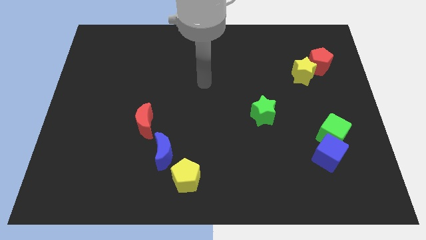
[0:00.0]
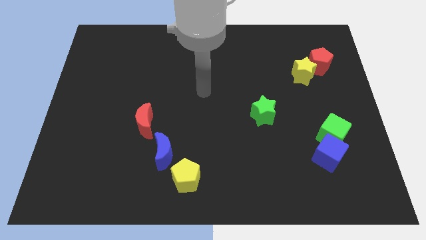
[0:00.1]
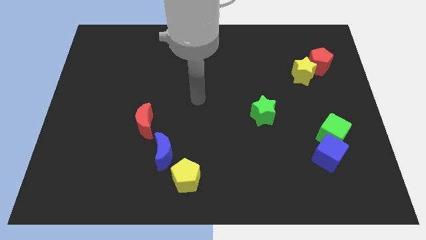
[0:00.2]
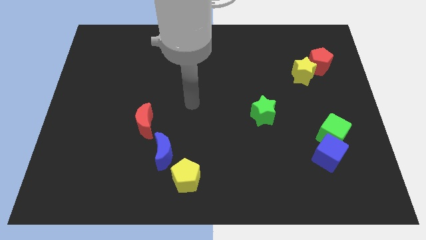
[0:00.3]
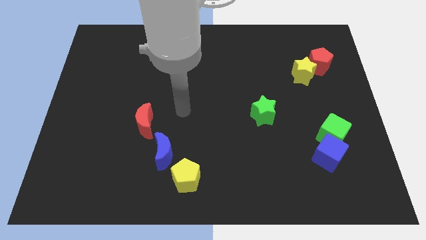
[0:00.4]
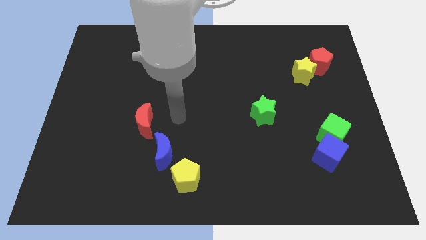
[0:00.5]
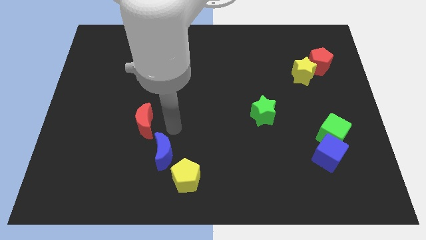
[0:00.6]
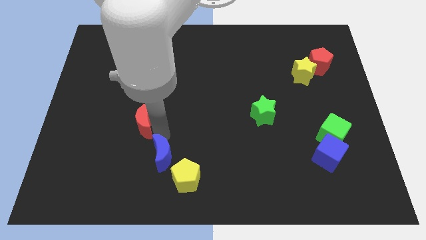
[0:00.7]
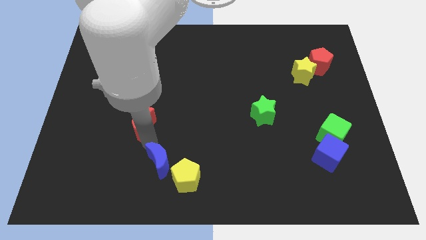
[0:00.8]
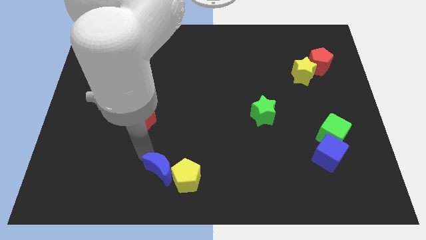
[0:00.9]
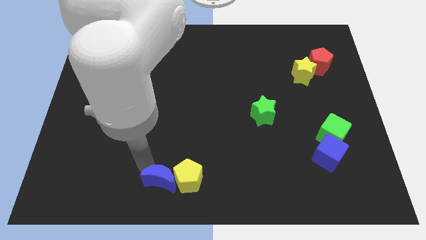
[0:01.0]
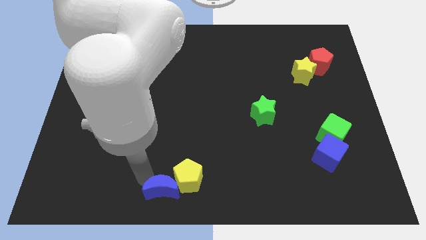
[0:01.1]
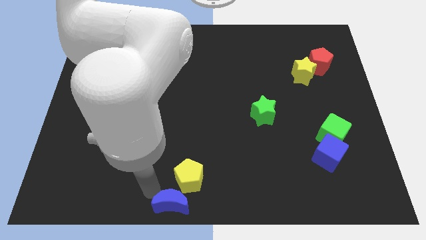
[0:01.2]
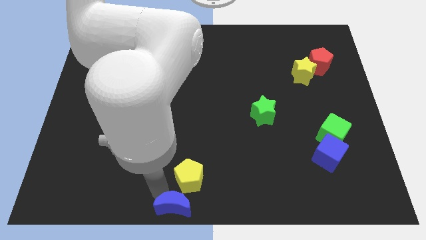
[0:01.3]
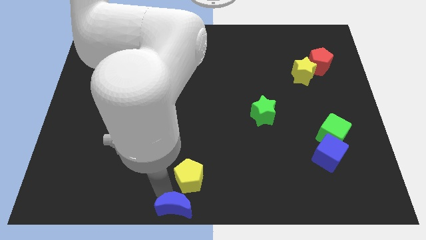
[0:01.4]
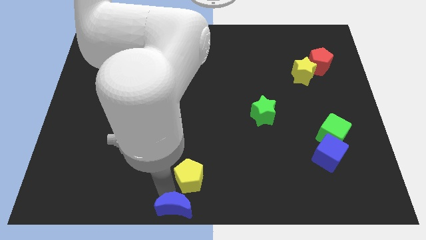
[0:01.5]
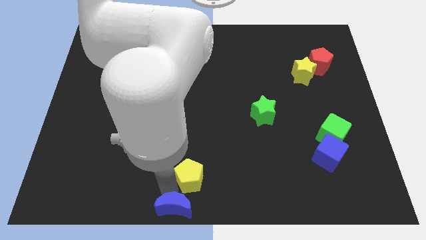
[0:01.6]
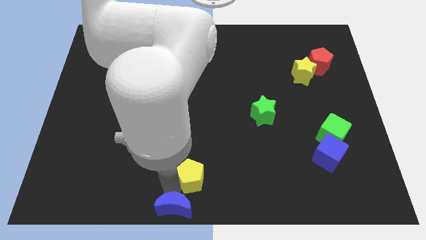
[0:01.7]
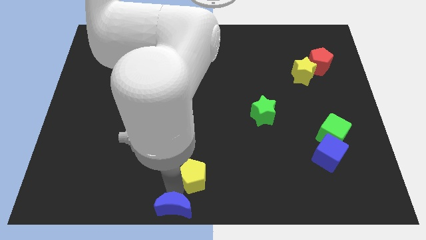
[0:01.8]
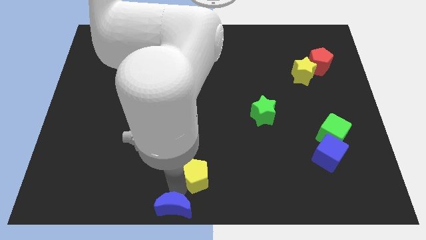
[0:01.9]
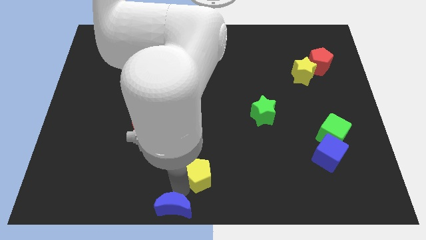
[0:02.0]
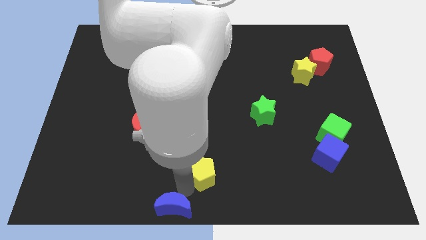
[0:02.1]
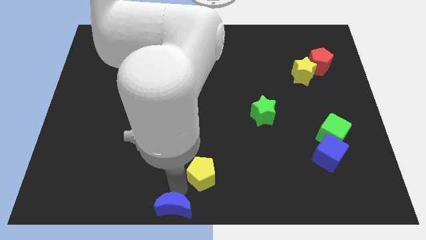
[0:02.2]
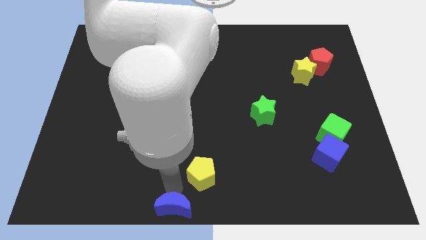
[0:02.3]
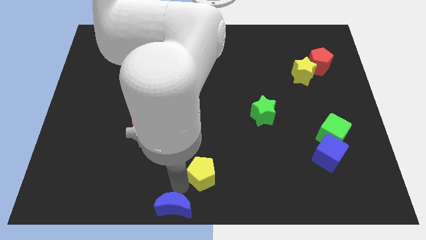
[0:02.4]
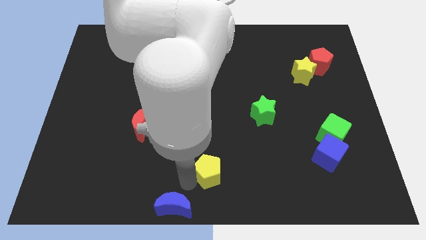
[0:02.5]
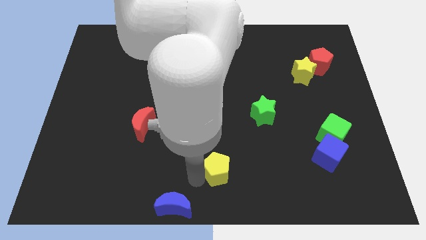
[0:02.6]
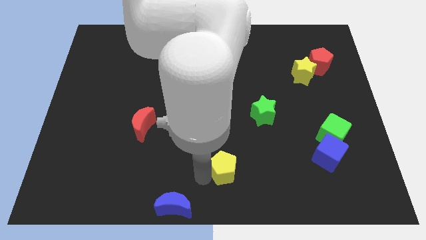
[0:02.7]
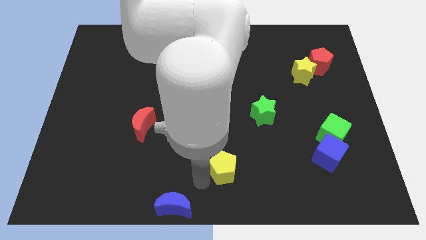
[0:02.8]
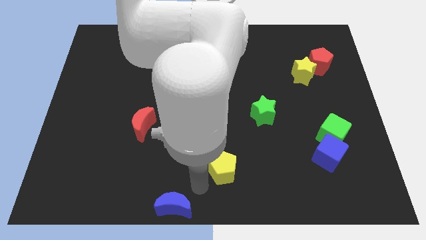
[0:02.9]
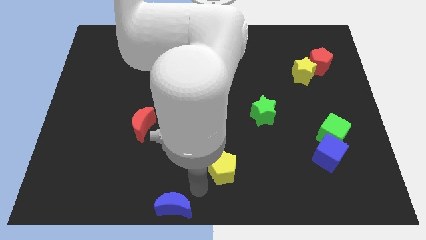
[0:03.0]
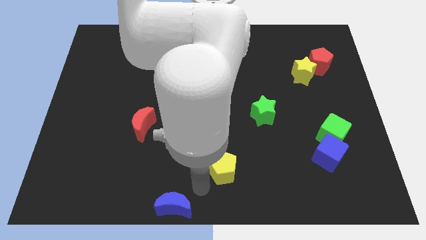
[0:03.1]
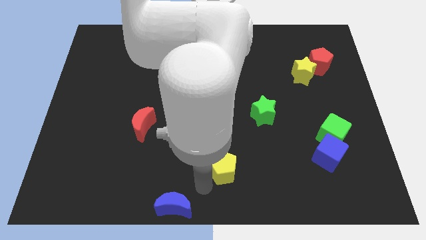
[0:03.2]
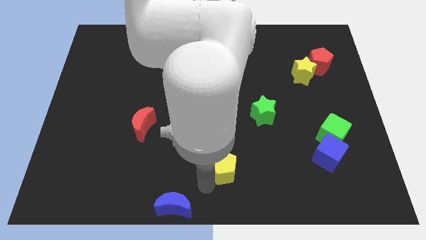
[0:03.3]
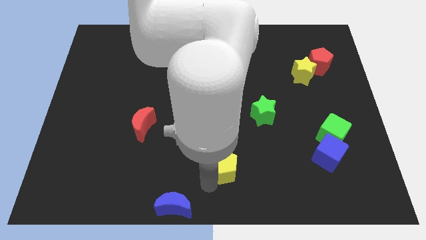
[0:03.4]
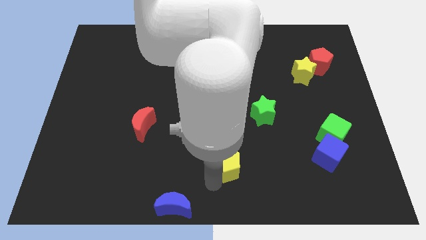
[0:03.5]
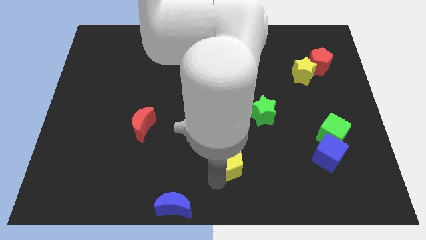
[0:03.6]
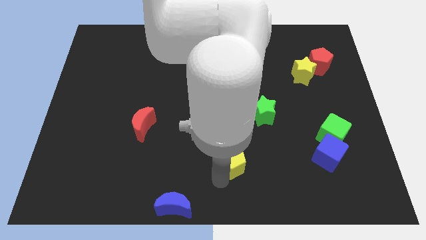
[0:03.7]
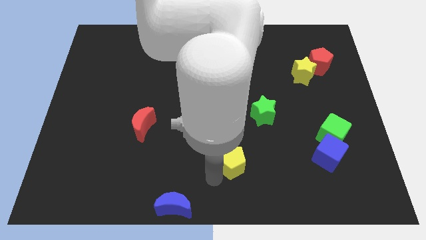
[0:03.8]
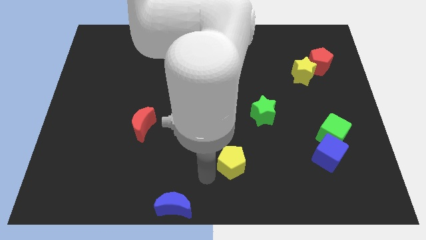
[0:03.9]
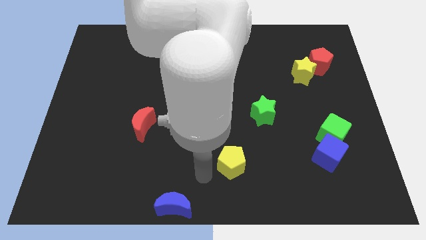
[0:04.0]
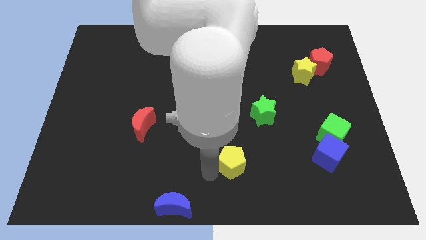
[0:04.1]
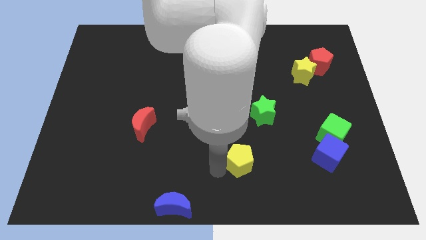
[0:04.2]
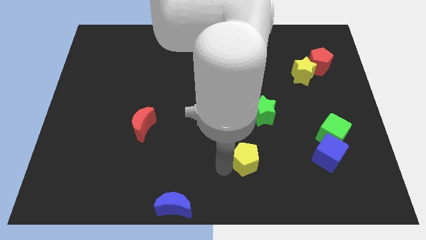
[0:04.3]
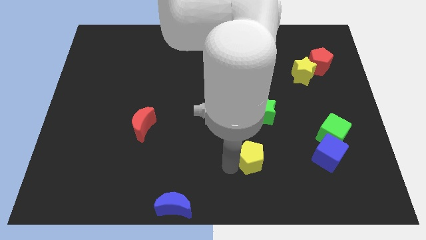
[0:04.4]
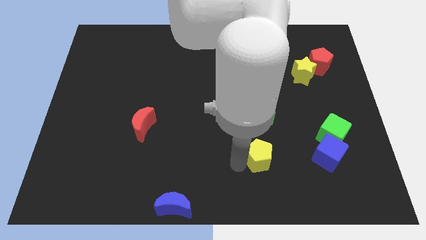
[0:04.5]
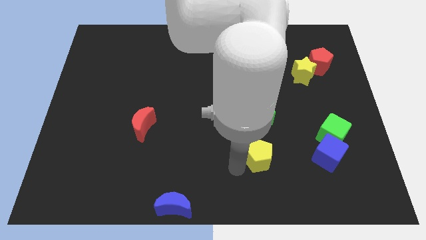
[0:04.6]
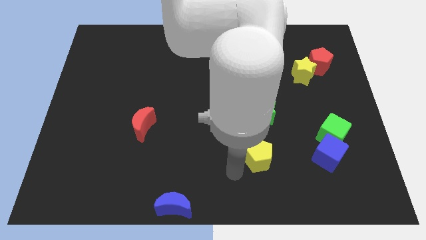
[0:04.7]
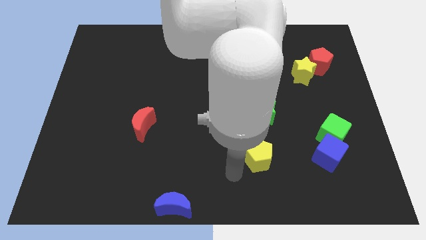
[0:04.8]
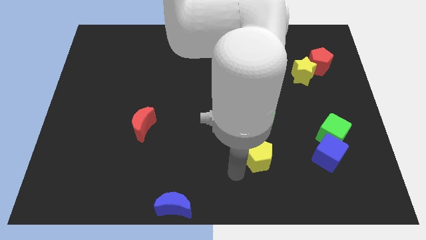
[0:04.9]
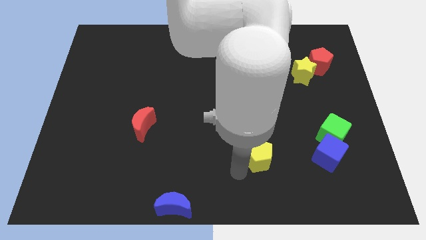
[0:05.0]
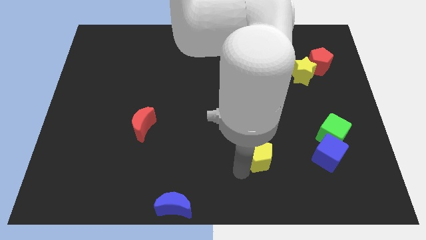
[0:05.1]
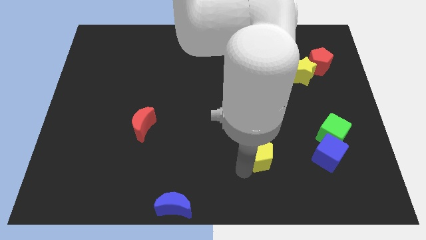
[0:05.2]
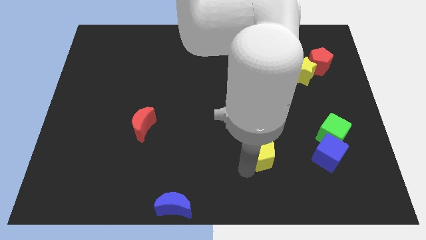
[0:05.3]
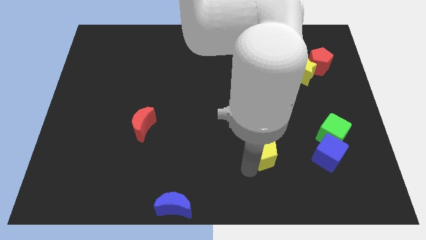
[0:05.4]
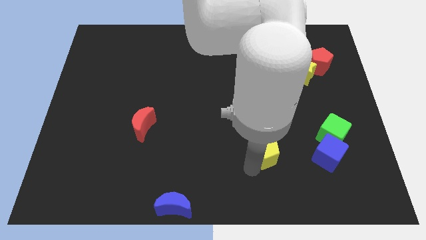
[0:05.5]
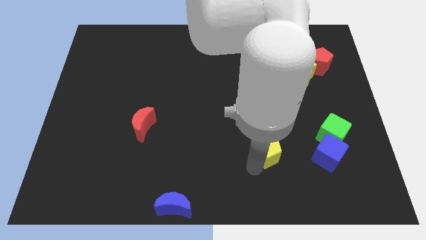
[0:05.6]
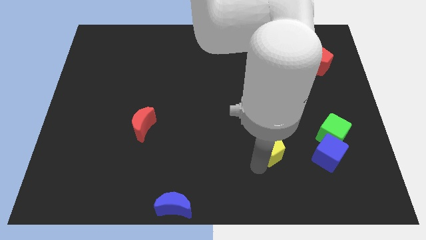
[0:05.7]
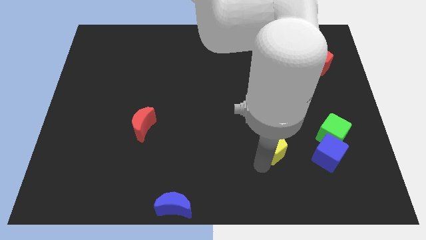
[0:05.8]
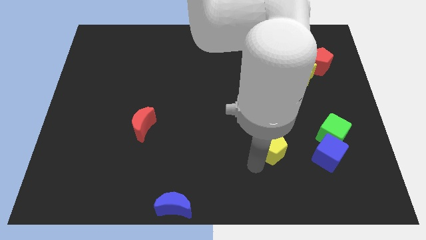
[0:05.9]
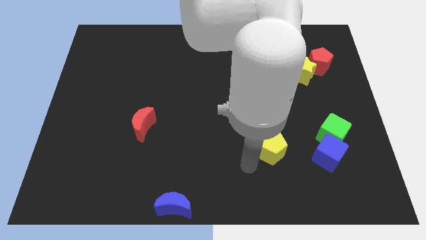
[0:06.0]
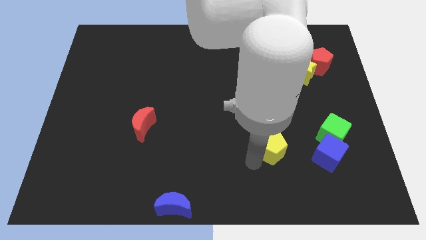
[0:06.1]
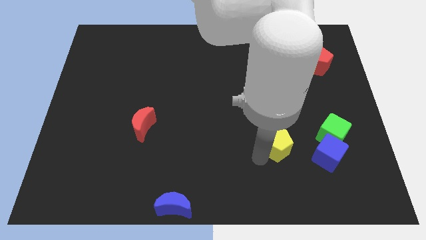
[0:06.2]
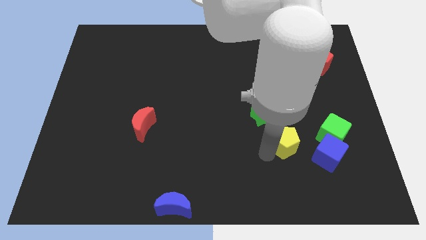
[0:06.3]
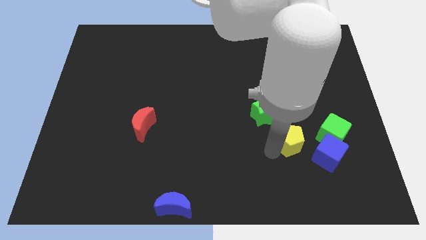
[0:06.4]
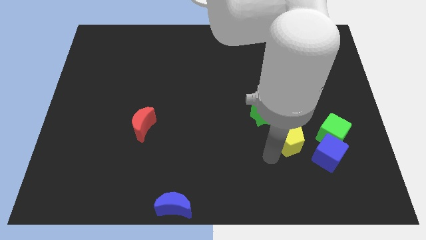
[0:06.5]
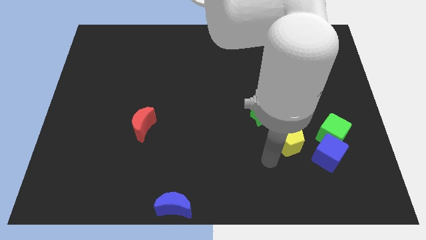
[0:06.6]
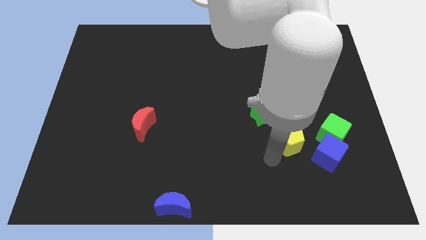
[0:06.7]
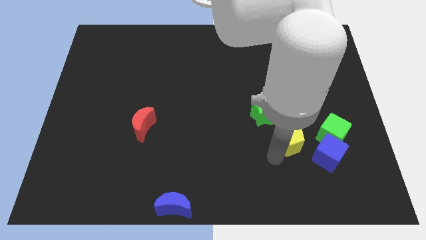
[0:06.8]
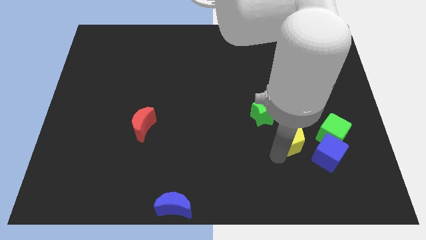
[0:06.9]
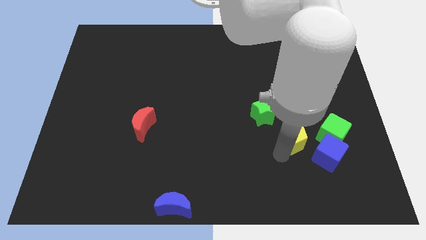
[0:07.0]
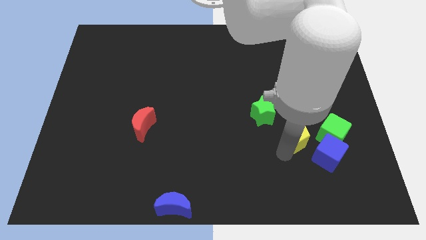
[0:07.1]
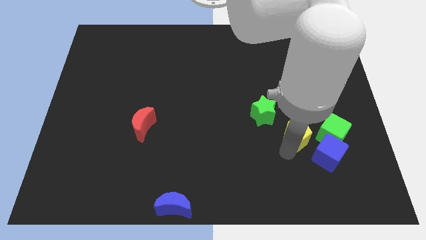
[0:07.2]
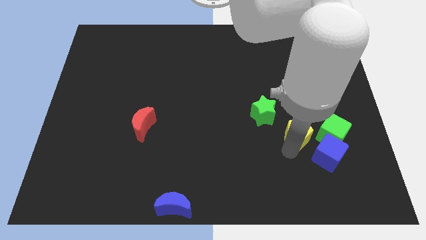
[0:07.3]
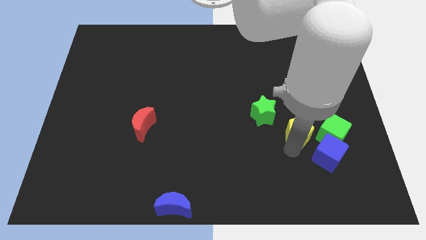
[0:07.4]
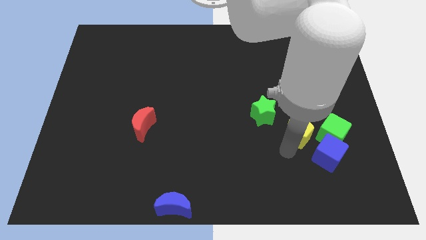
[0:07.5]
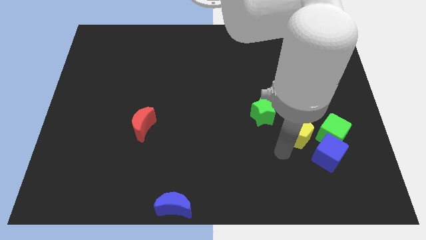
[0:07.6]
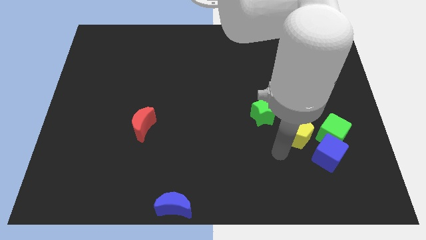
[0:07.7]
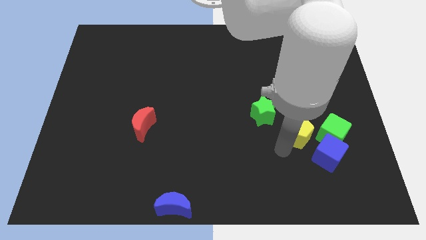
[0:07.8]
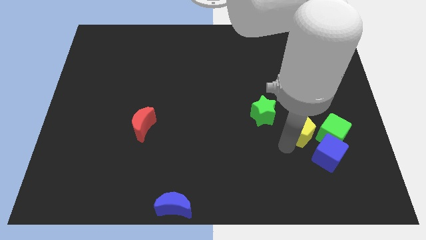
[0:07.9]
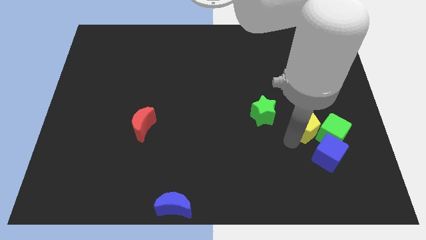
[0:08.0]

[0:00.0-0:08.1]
move the yellow pentagon above the blue cube
